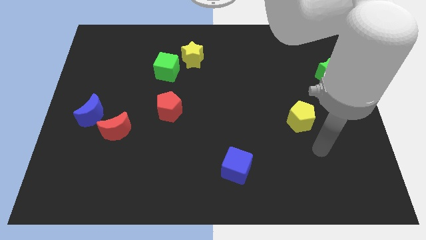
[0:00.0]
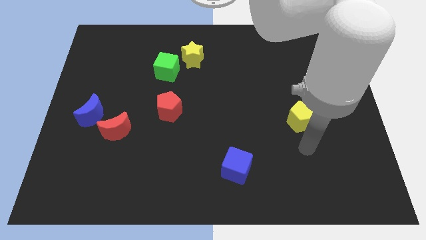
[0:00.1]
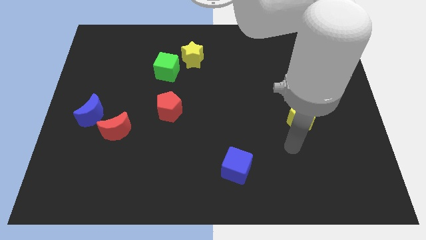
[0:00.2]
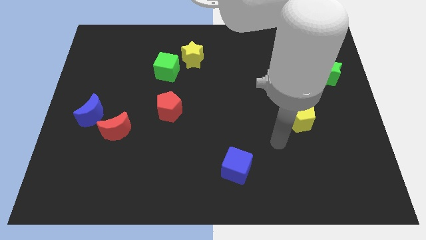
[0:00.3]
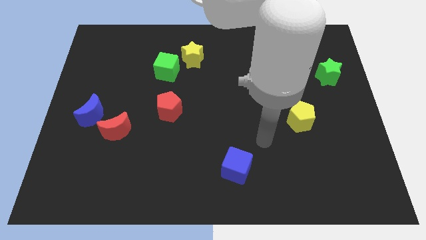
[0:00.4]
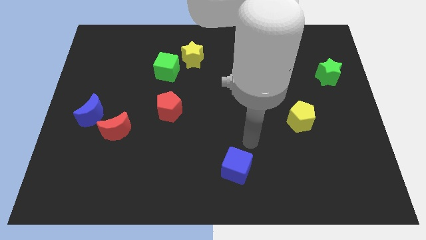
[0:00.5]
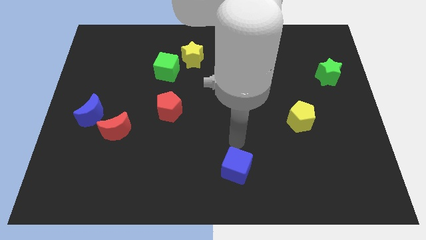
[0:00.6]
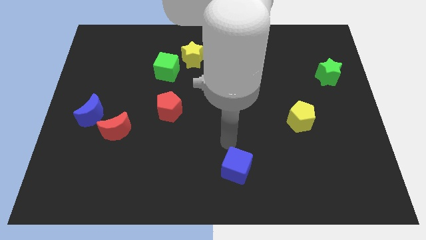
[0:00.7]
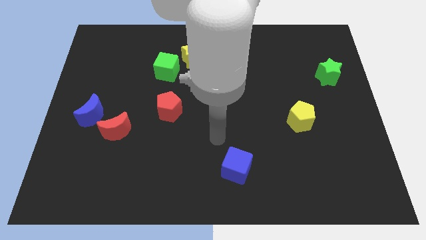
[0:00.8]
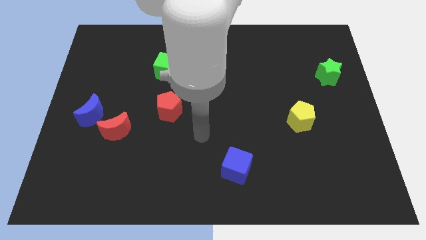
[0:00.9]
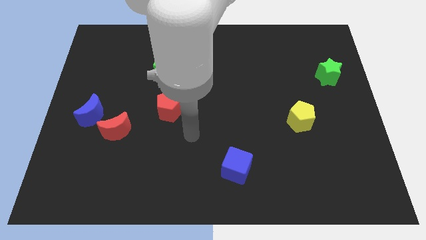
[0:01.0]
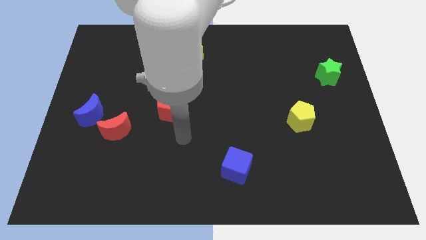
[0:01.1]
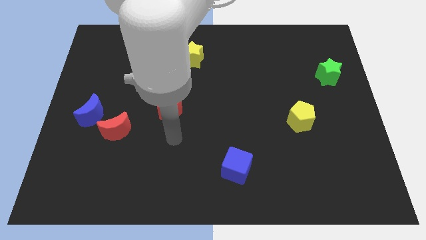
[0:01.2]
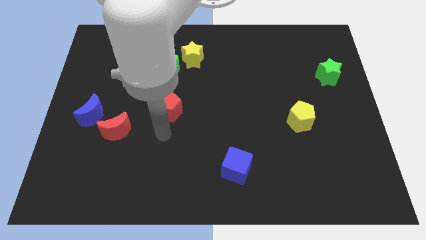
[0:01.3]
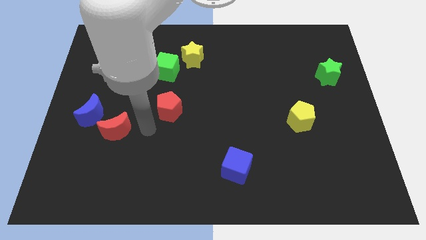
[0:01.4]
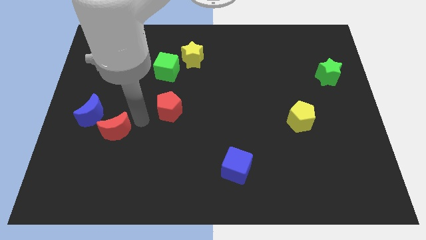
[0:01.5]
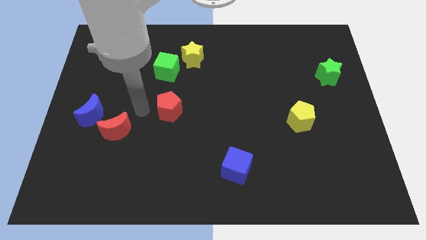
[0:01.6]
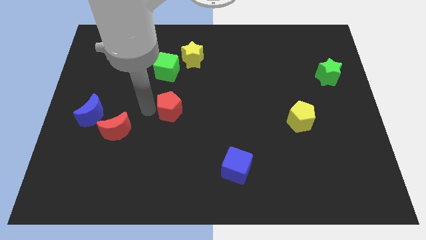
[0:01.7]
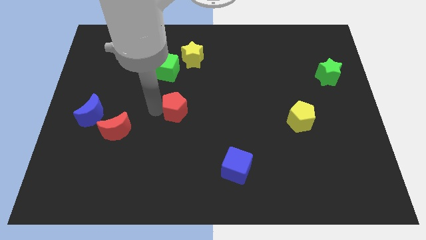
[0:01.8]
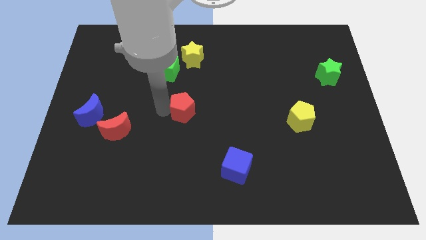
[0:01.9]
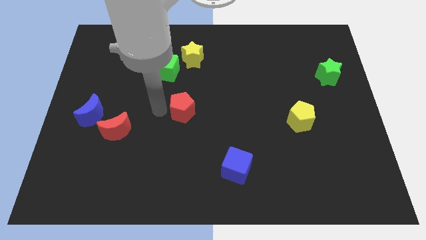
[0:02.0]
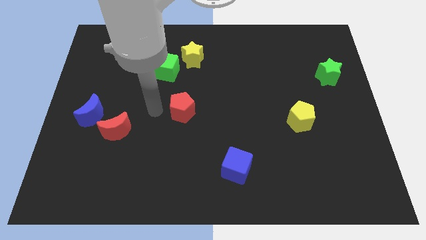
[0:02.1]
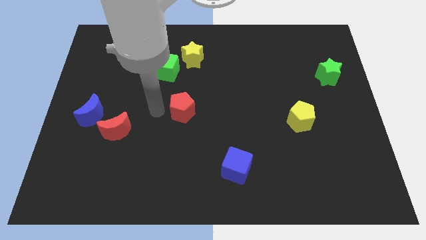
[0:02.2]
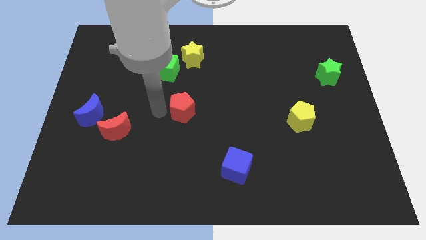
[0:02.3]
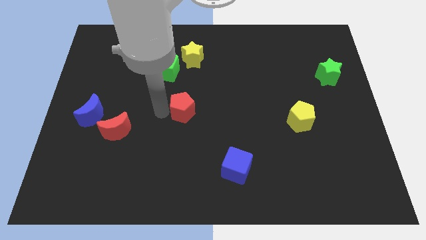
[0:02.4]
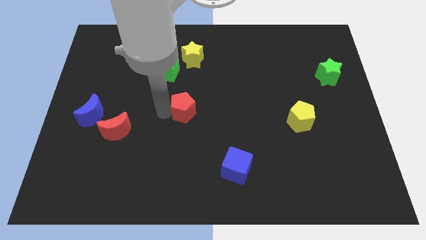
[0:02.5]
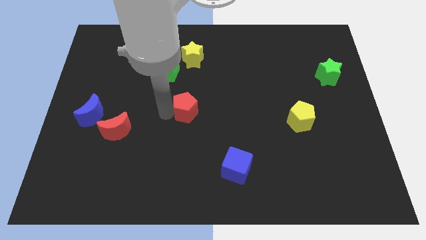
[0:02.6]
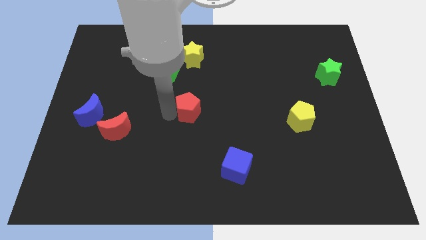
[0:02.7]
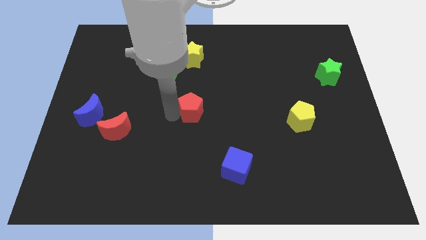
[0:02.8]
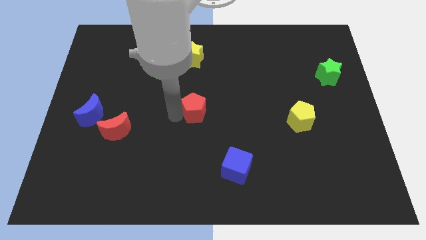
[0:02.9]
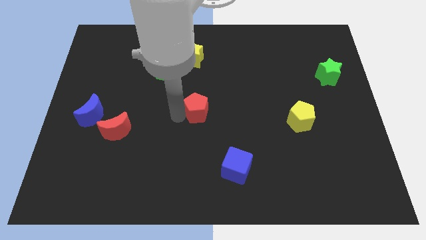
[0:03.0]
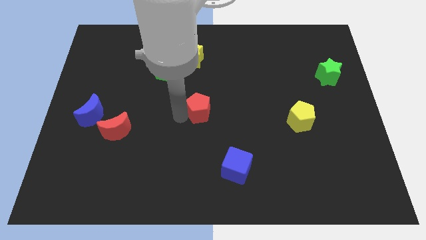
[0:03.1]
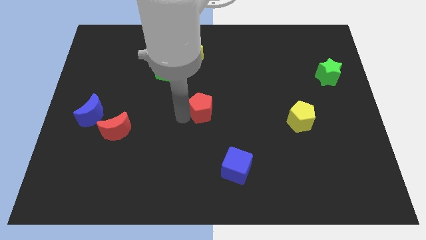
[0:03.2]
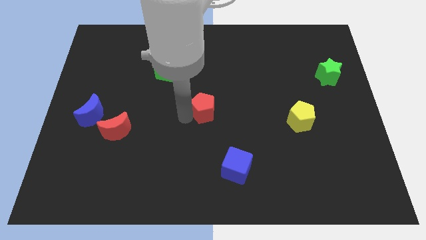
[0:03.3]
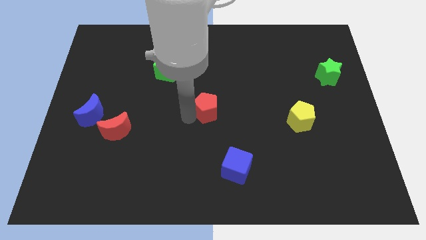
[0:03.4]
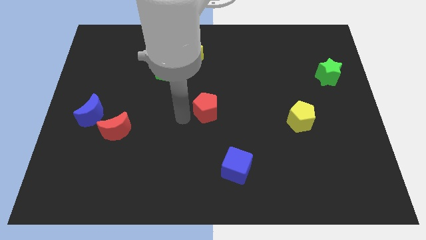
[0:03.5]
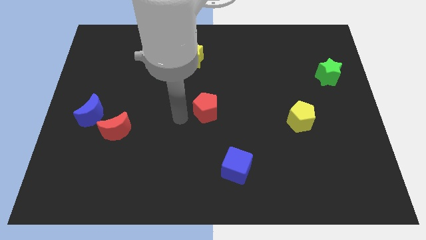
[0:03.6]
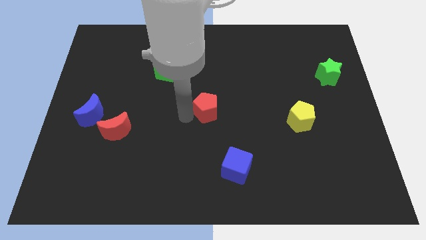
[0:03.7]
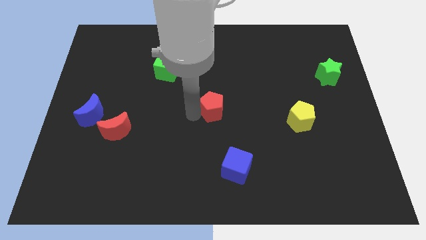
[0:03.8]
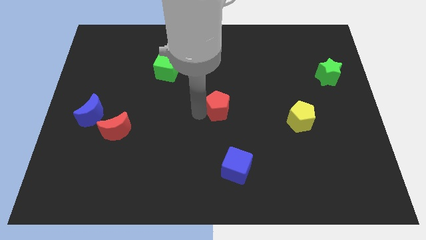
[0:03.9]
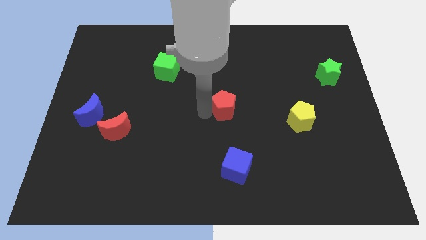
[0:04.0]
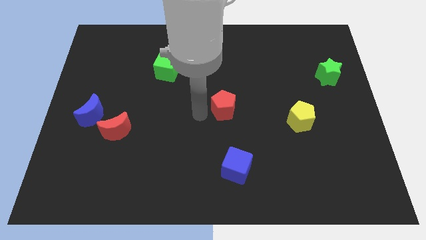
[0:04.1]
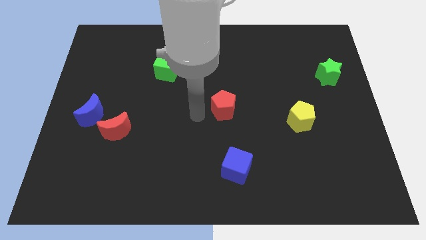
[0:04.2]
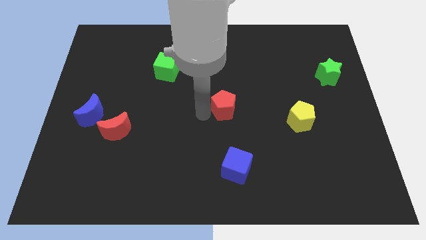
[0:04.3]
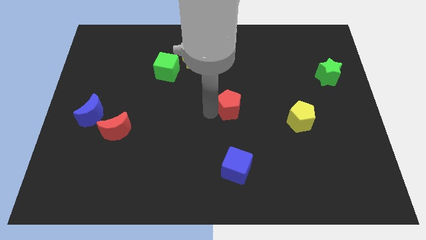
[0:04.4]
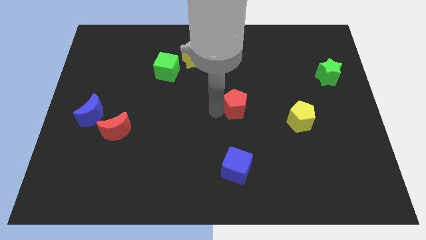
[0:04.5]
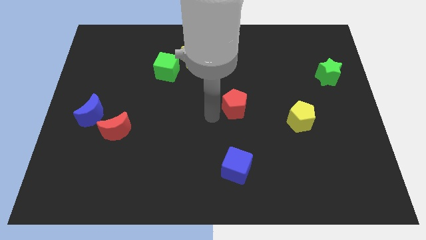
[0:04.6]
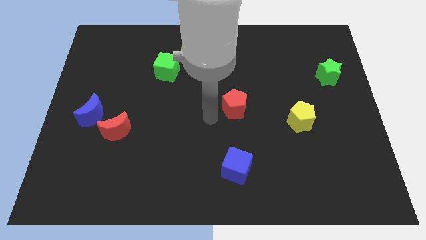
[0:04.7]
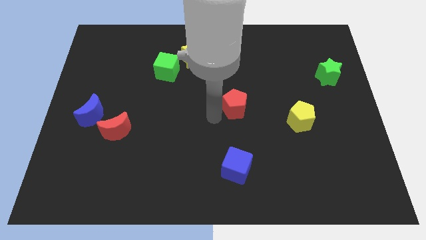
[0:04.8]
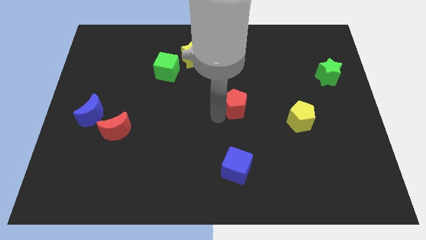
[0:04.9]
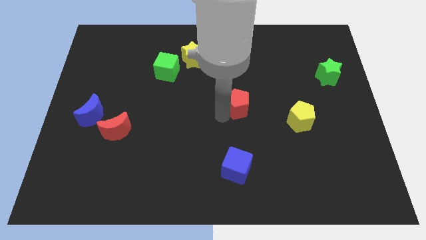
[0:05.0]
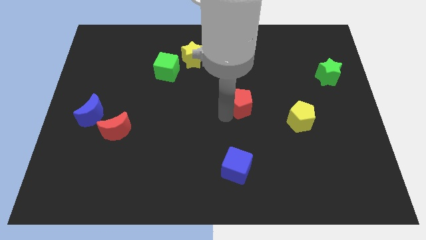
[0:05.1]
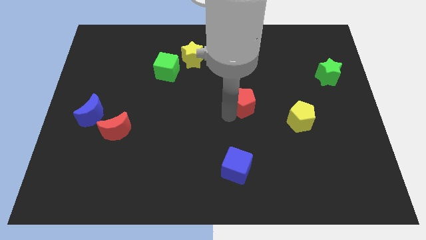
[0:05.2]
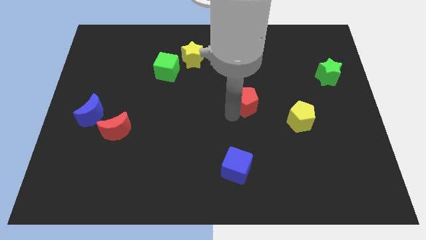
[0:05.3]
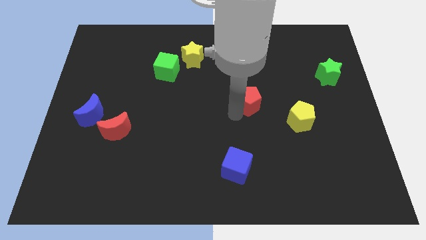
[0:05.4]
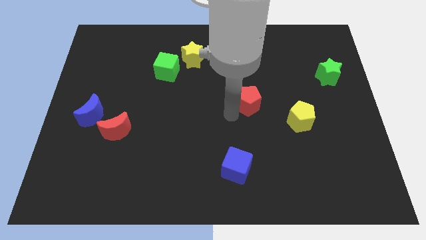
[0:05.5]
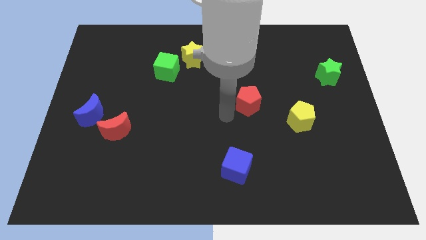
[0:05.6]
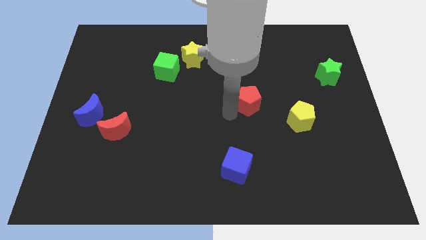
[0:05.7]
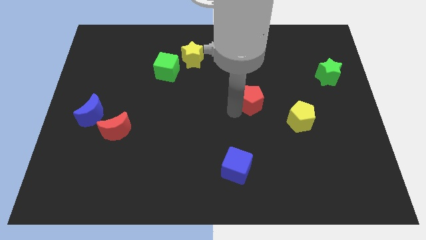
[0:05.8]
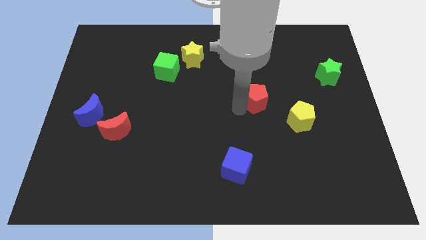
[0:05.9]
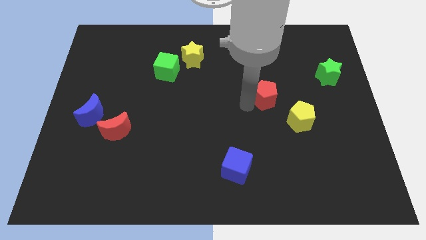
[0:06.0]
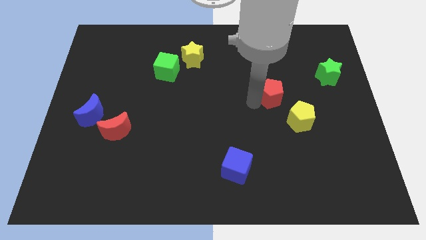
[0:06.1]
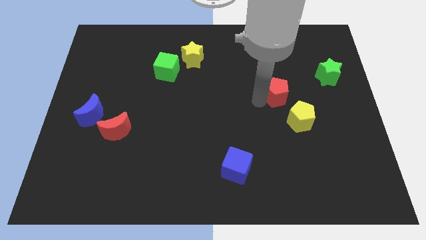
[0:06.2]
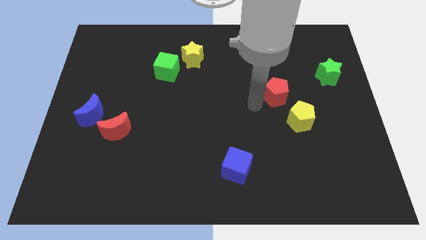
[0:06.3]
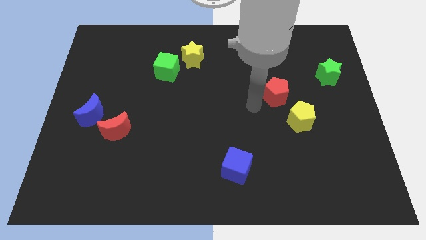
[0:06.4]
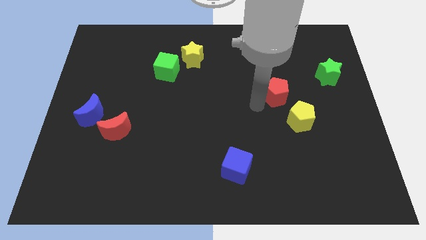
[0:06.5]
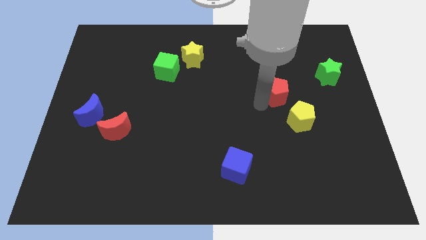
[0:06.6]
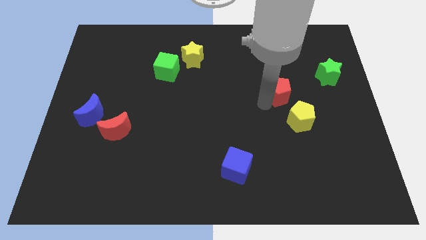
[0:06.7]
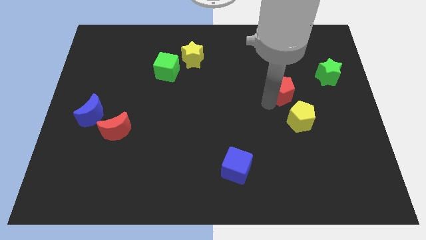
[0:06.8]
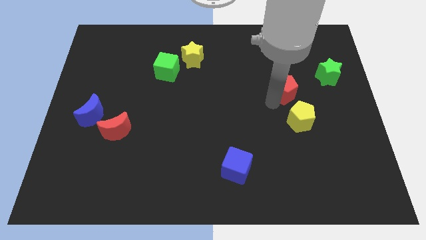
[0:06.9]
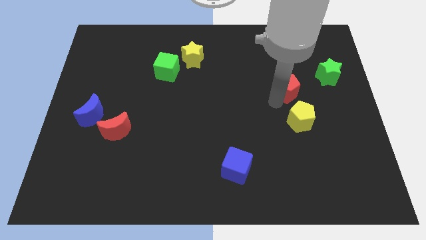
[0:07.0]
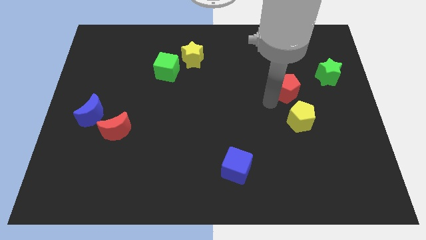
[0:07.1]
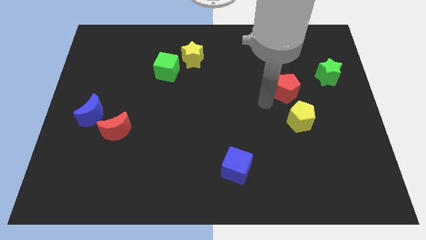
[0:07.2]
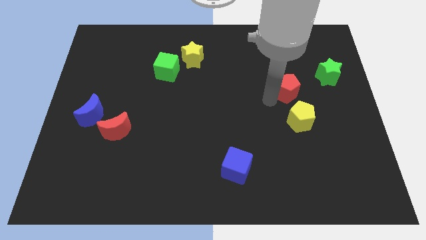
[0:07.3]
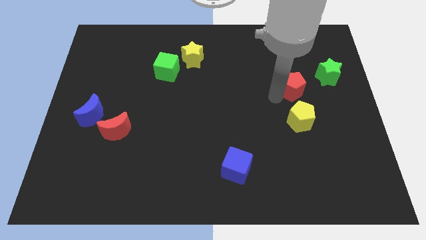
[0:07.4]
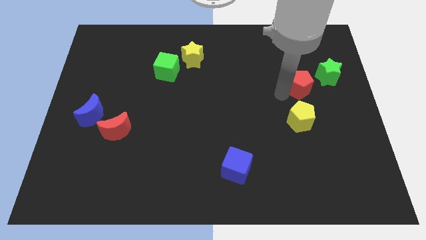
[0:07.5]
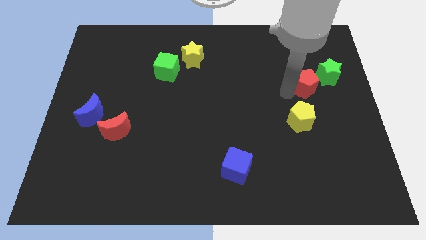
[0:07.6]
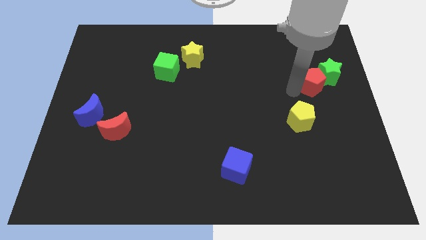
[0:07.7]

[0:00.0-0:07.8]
push the red pentagon towards the green star
